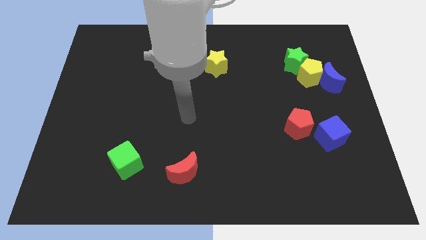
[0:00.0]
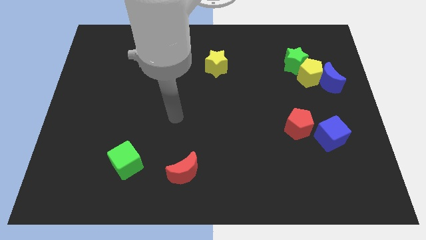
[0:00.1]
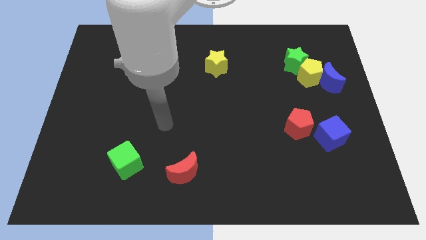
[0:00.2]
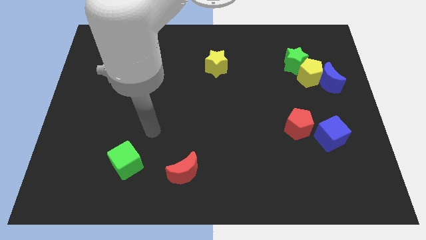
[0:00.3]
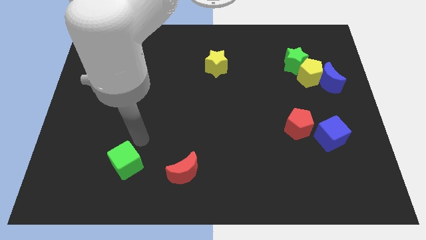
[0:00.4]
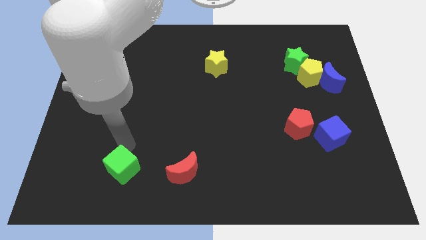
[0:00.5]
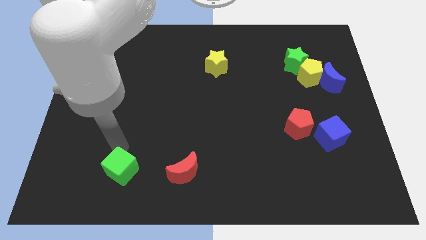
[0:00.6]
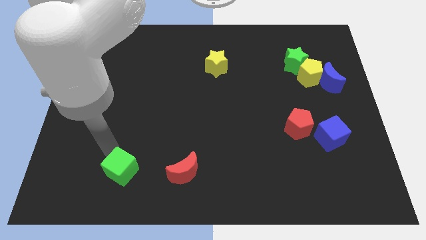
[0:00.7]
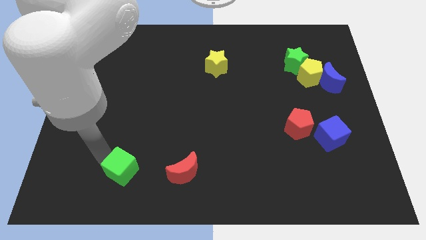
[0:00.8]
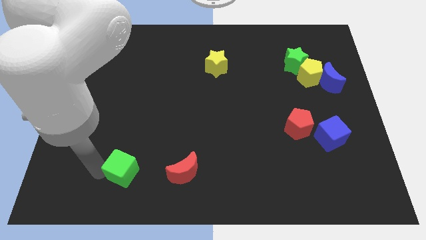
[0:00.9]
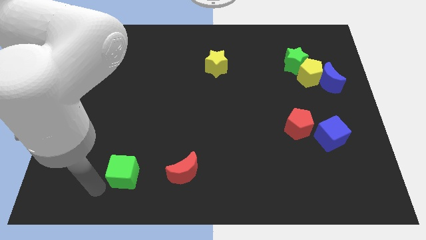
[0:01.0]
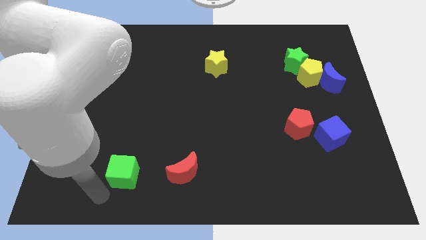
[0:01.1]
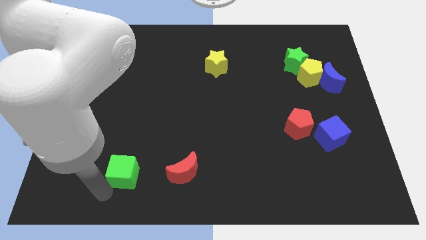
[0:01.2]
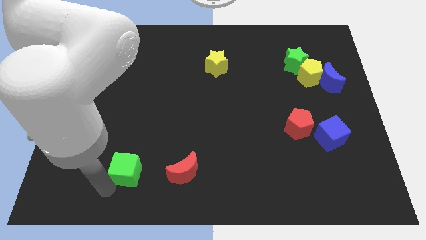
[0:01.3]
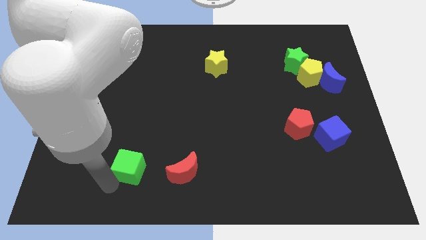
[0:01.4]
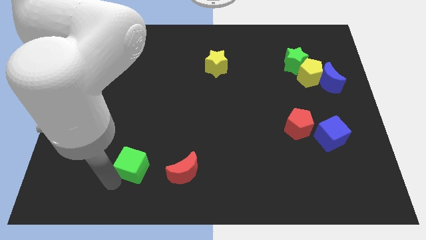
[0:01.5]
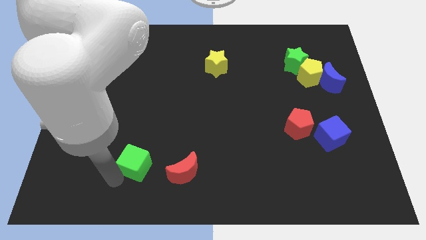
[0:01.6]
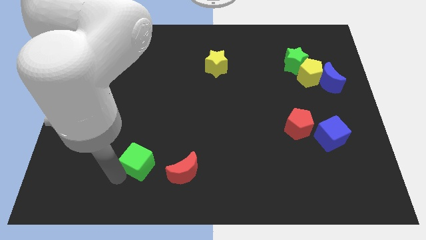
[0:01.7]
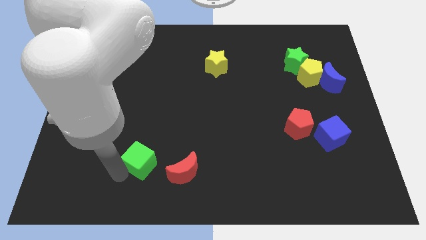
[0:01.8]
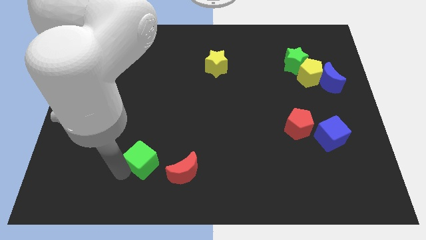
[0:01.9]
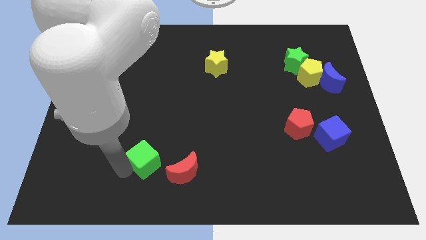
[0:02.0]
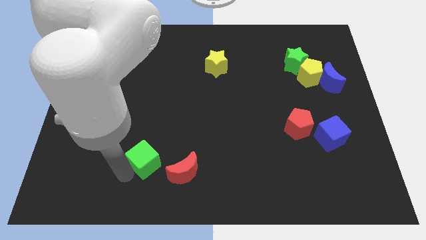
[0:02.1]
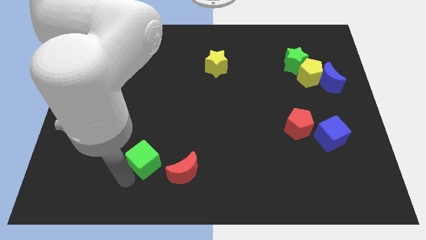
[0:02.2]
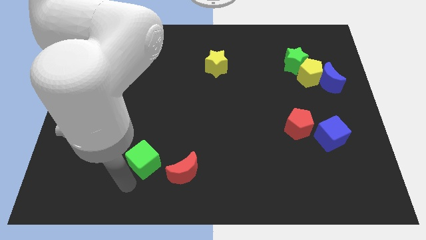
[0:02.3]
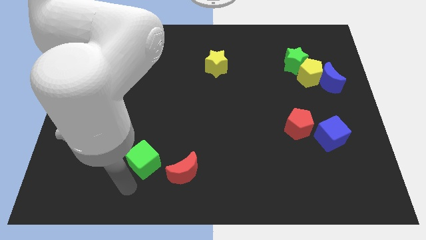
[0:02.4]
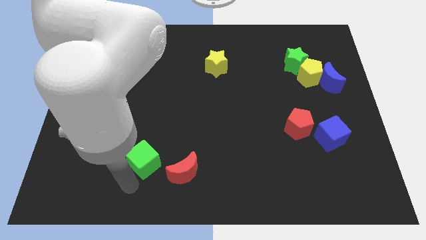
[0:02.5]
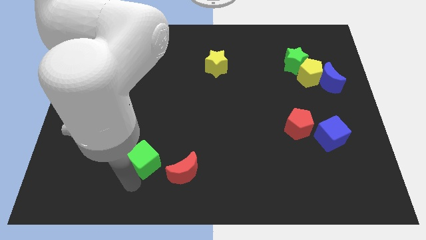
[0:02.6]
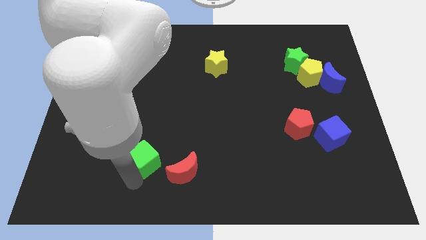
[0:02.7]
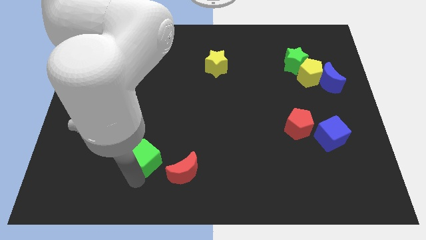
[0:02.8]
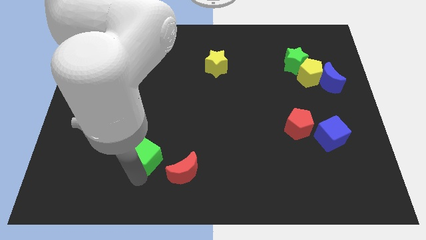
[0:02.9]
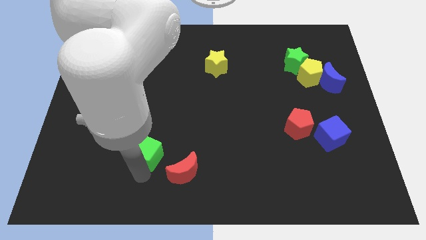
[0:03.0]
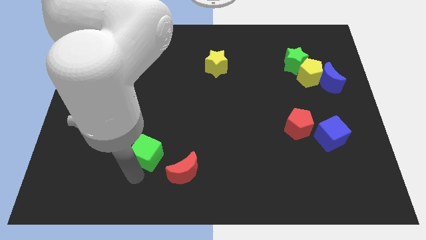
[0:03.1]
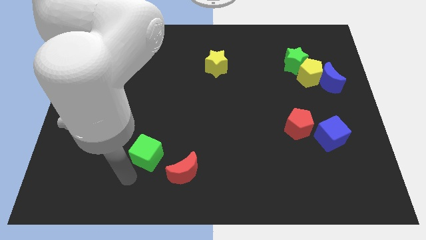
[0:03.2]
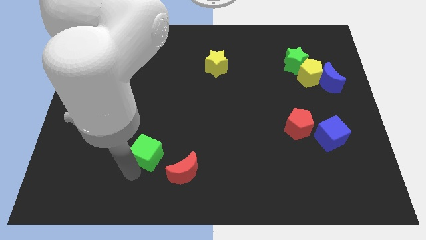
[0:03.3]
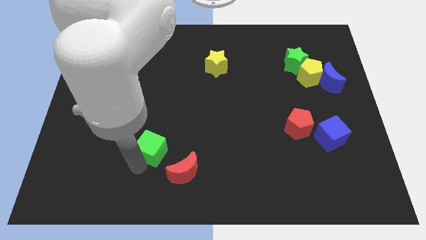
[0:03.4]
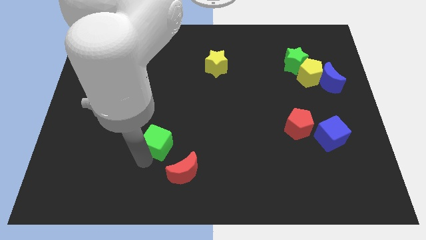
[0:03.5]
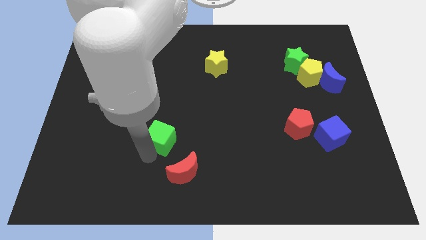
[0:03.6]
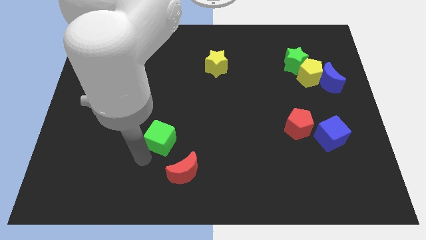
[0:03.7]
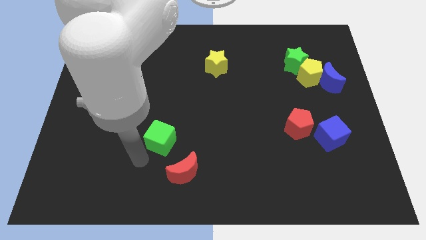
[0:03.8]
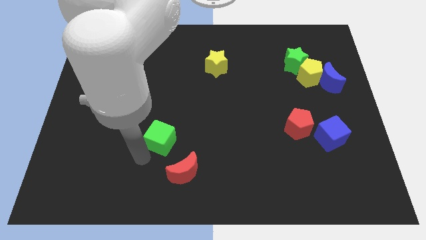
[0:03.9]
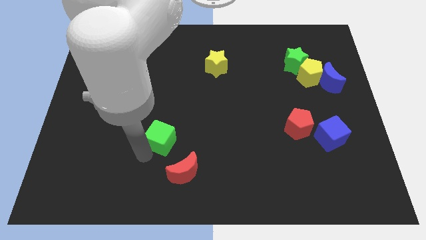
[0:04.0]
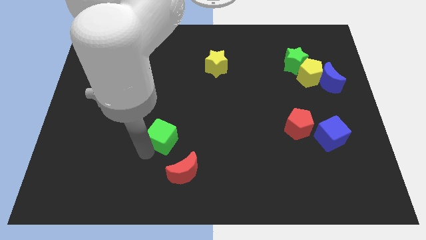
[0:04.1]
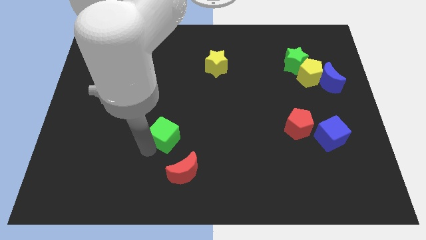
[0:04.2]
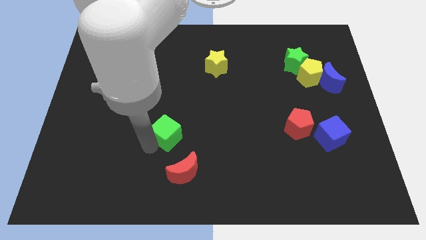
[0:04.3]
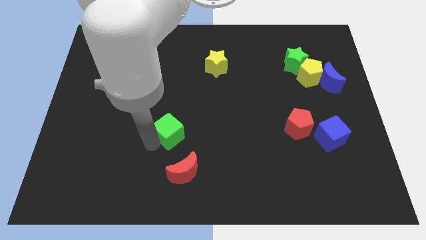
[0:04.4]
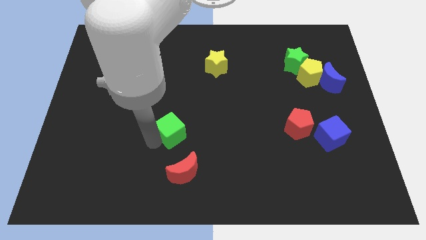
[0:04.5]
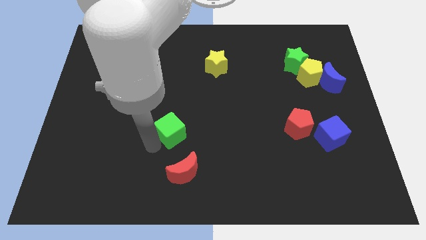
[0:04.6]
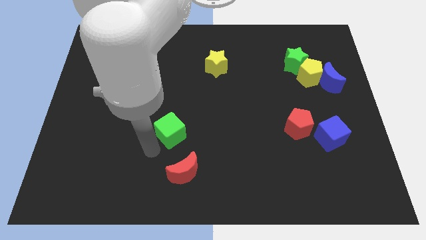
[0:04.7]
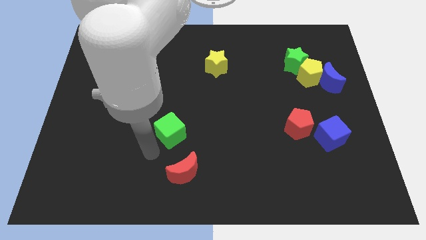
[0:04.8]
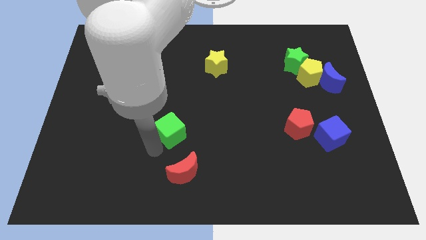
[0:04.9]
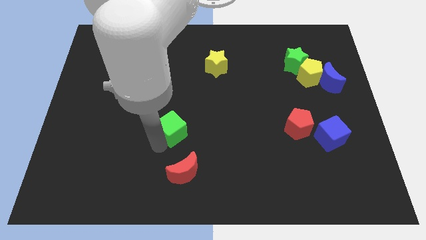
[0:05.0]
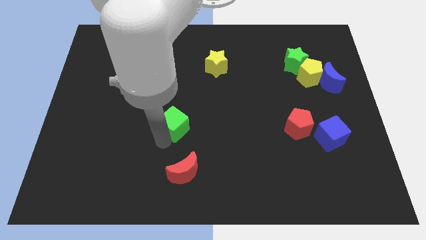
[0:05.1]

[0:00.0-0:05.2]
move the green cube to the center of the board

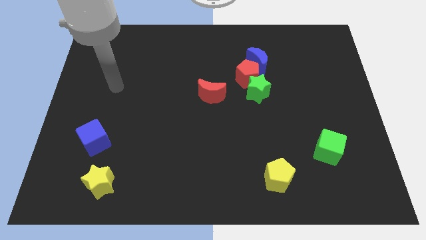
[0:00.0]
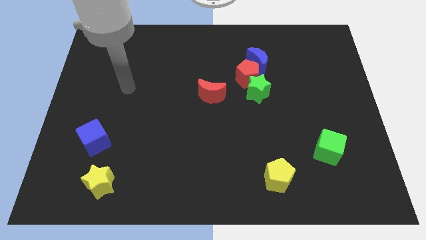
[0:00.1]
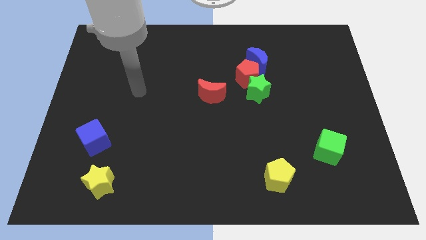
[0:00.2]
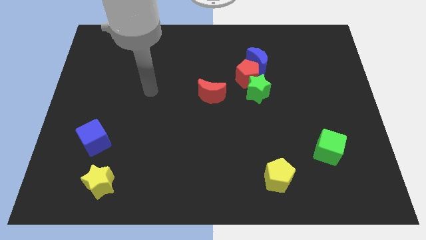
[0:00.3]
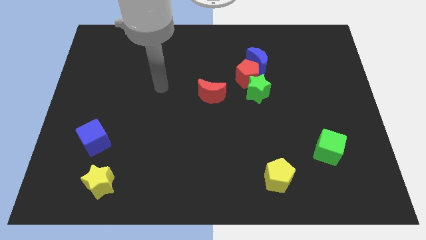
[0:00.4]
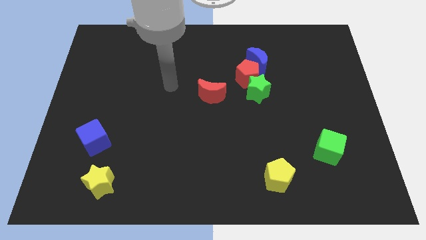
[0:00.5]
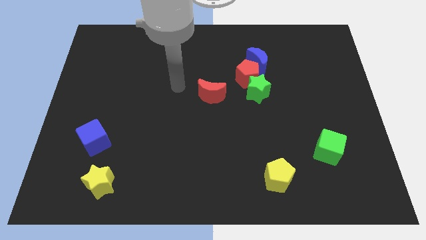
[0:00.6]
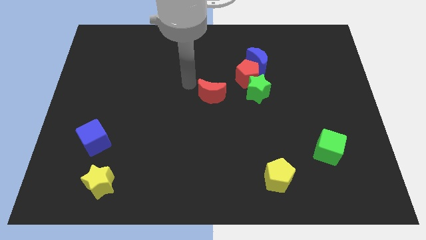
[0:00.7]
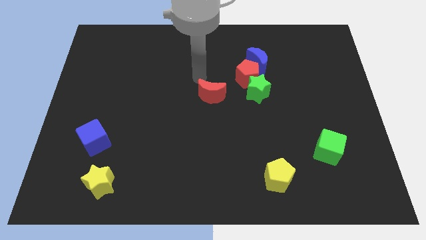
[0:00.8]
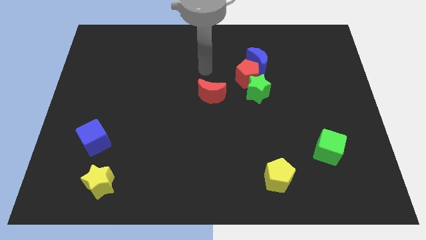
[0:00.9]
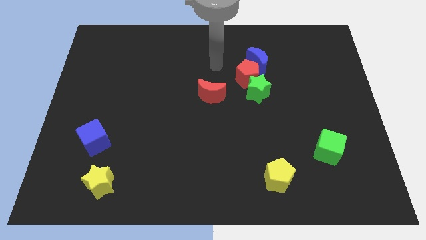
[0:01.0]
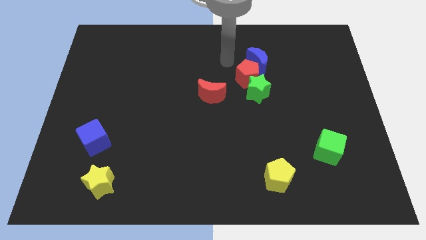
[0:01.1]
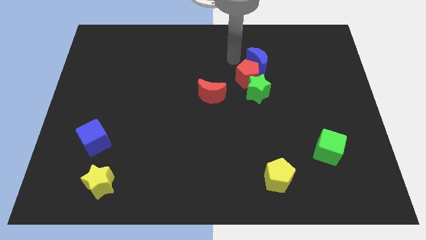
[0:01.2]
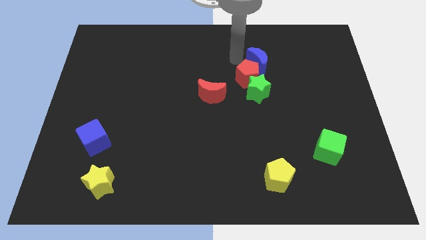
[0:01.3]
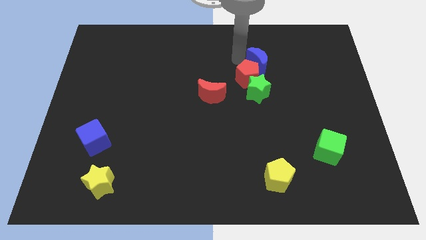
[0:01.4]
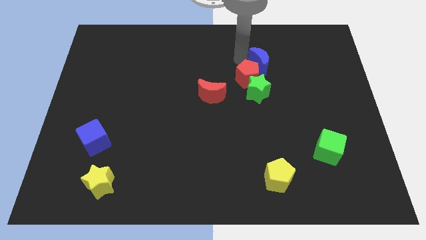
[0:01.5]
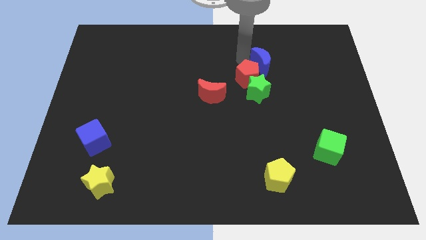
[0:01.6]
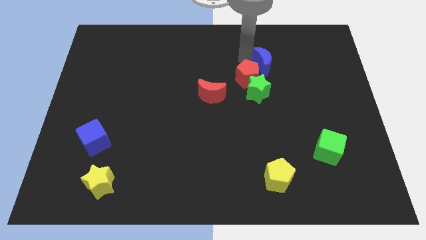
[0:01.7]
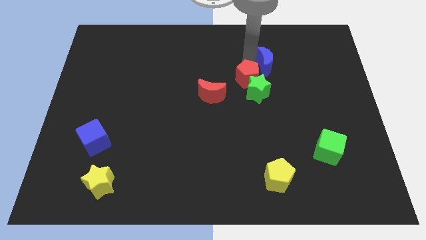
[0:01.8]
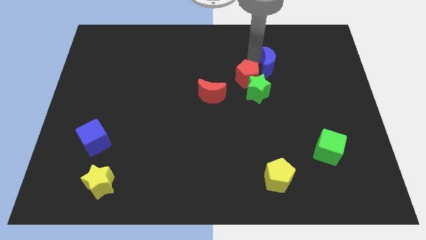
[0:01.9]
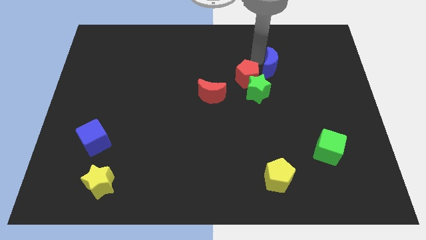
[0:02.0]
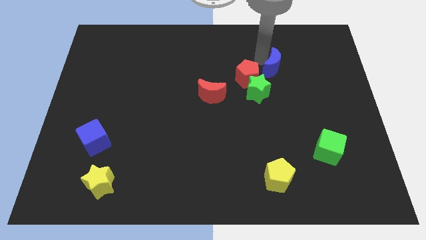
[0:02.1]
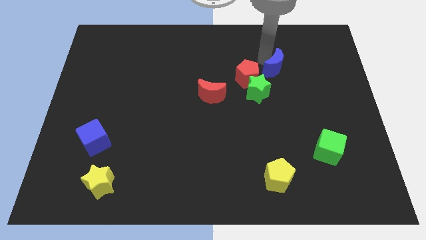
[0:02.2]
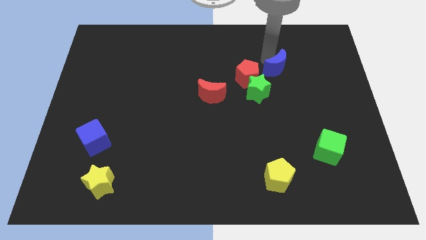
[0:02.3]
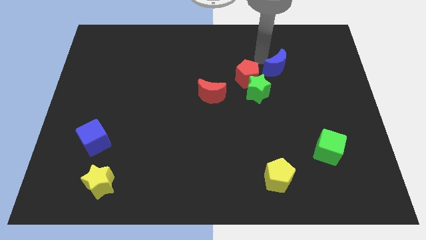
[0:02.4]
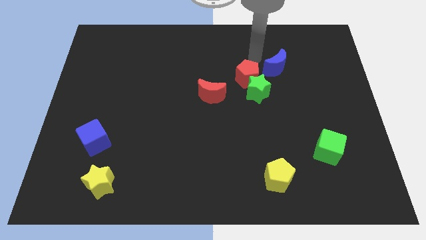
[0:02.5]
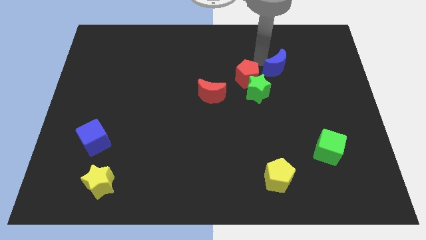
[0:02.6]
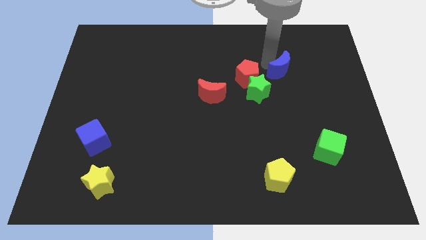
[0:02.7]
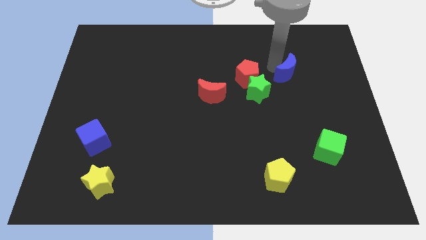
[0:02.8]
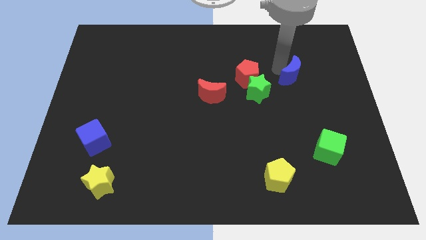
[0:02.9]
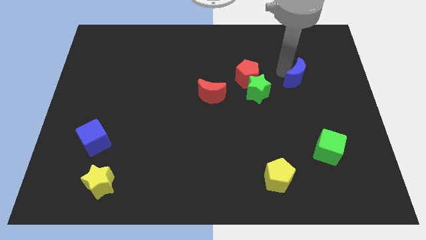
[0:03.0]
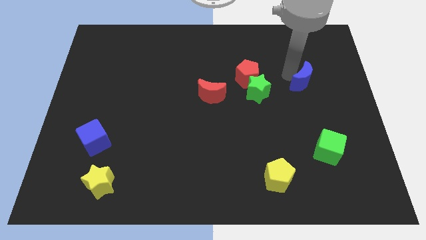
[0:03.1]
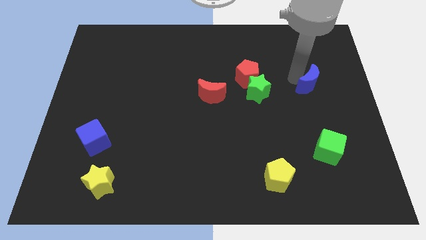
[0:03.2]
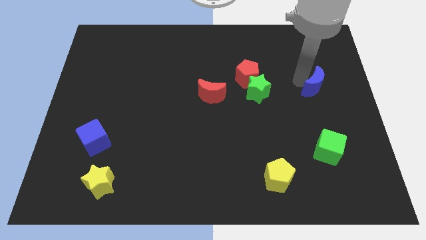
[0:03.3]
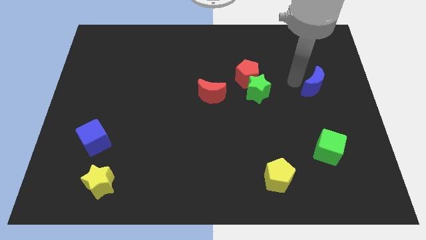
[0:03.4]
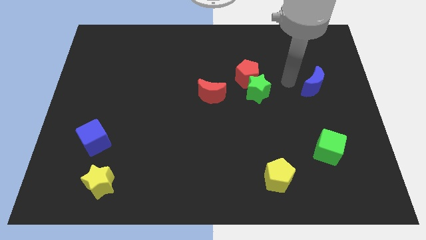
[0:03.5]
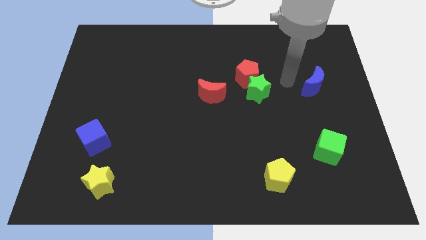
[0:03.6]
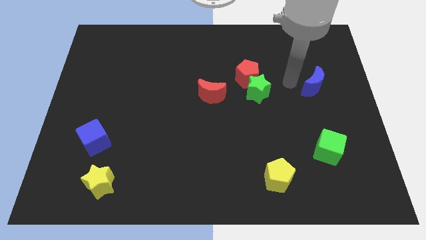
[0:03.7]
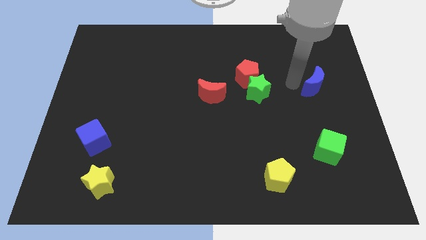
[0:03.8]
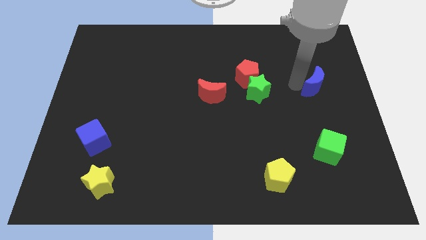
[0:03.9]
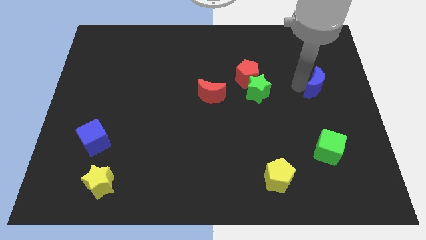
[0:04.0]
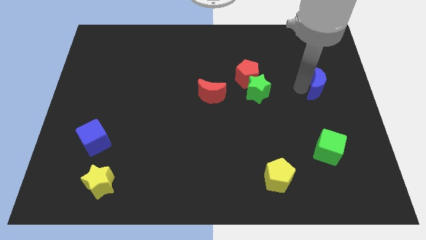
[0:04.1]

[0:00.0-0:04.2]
slide the blue moon to the right side
